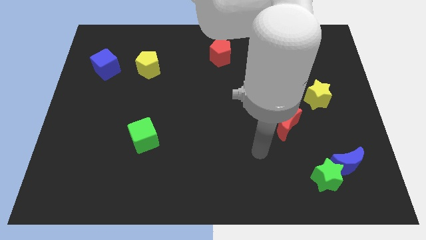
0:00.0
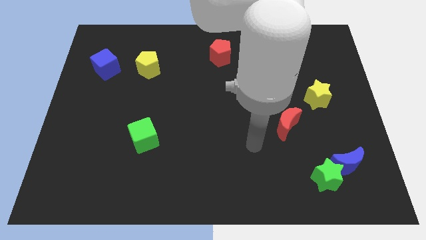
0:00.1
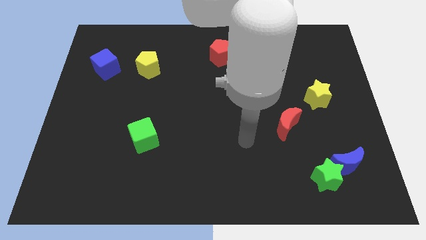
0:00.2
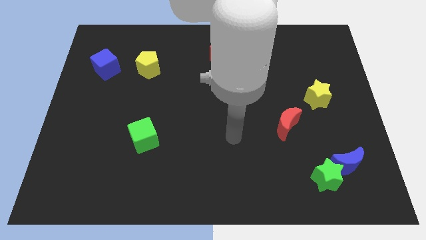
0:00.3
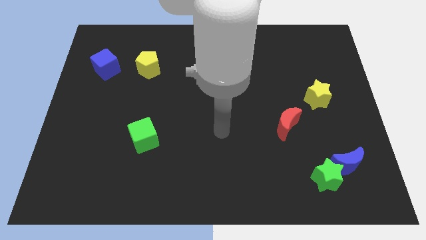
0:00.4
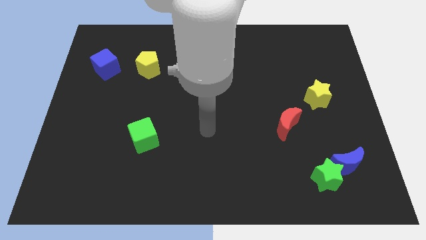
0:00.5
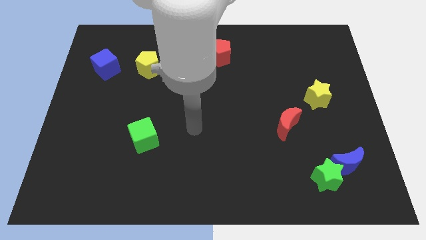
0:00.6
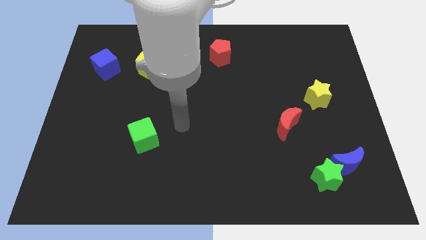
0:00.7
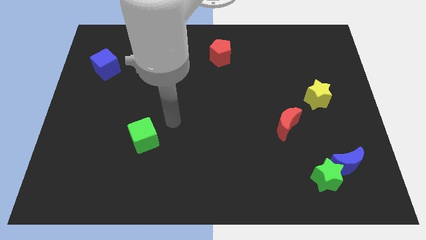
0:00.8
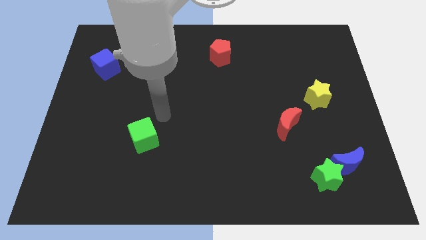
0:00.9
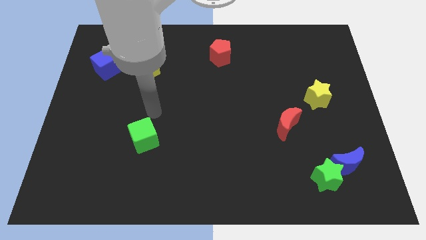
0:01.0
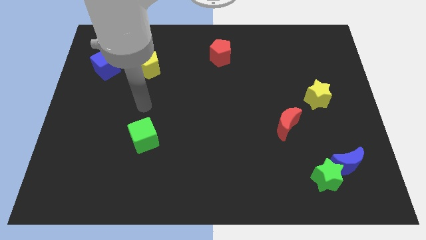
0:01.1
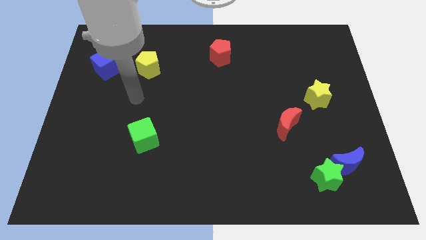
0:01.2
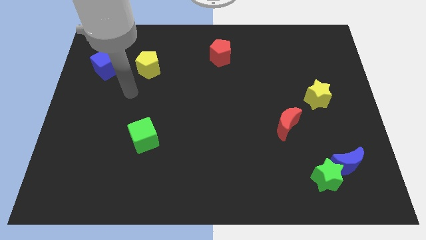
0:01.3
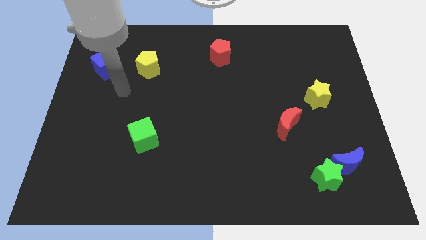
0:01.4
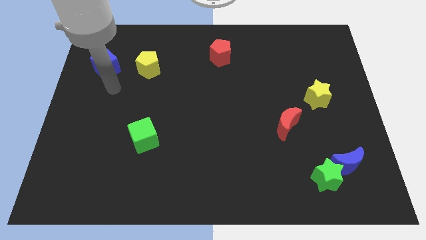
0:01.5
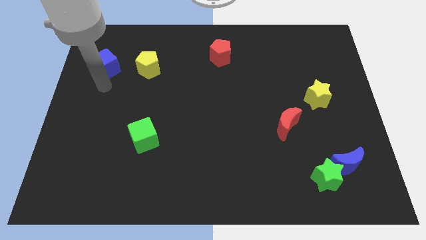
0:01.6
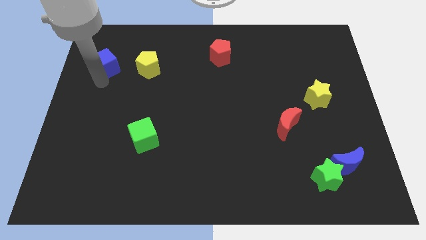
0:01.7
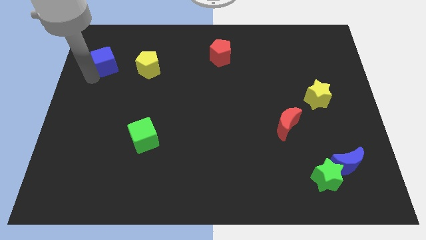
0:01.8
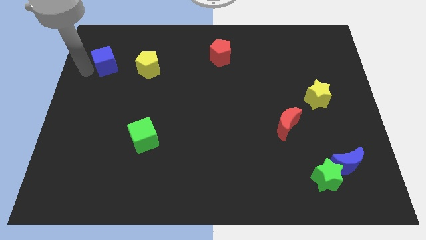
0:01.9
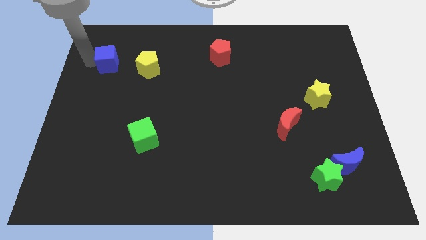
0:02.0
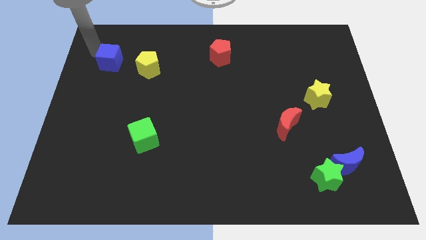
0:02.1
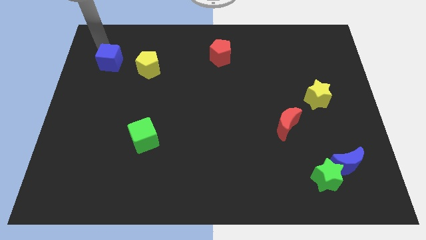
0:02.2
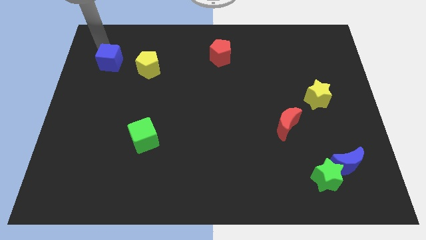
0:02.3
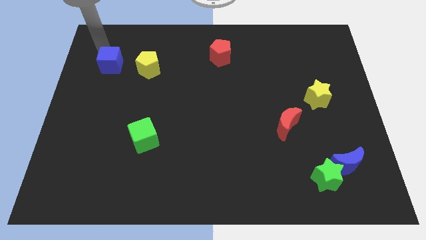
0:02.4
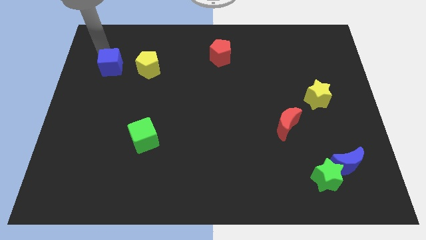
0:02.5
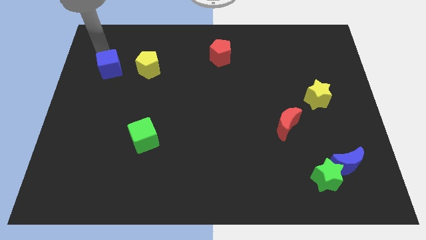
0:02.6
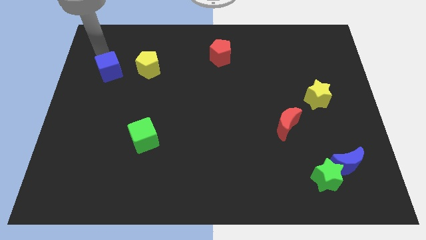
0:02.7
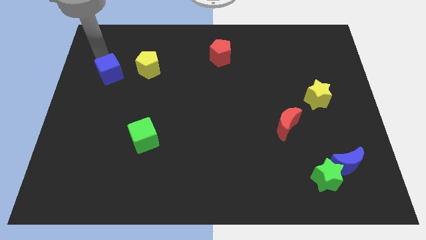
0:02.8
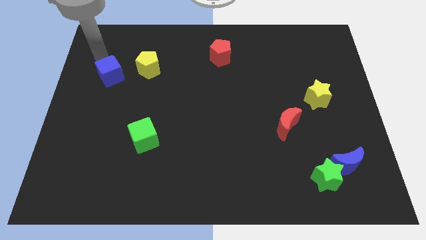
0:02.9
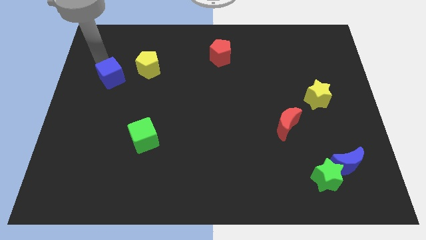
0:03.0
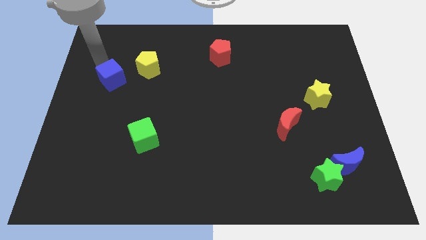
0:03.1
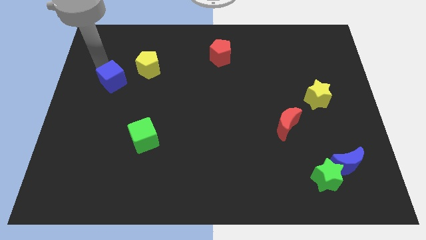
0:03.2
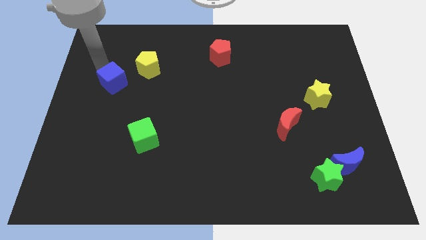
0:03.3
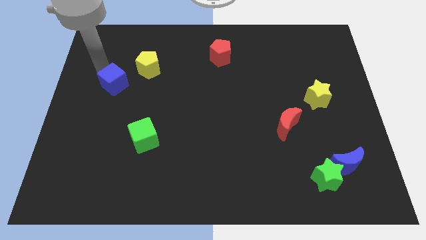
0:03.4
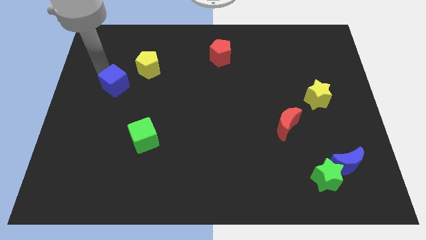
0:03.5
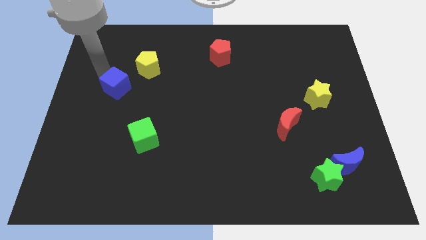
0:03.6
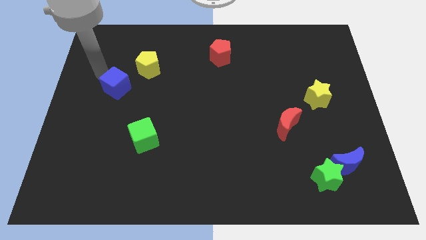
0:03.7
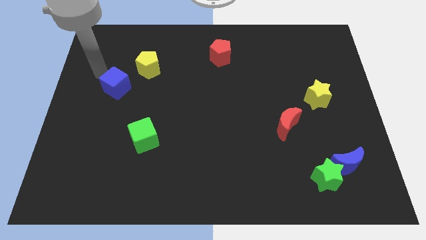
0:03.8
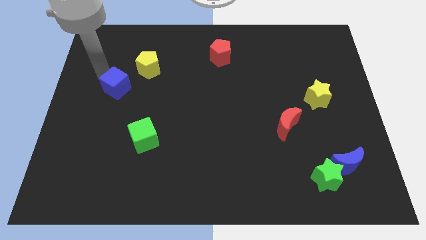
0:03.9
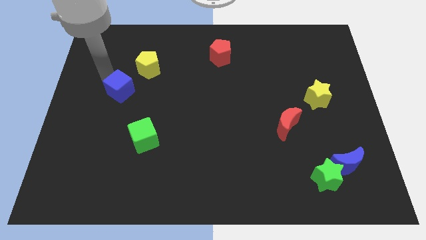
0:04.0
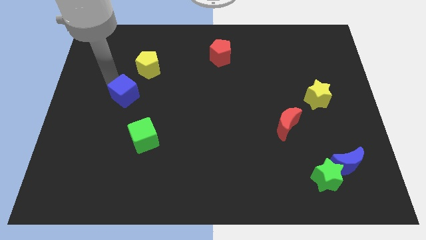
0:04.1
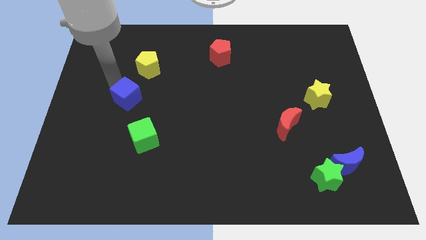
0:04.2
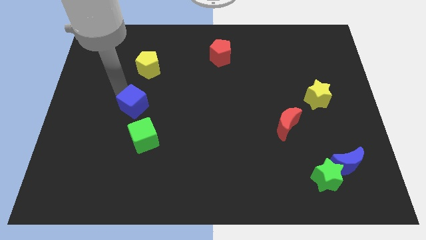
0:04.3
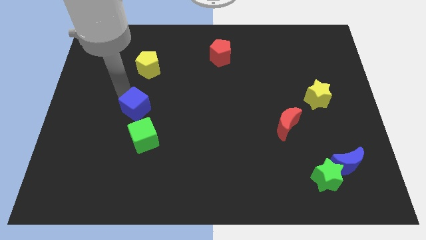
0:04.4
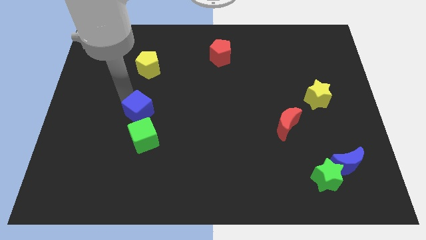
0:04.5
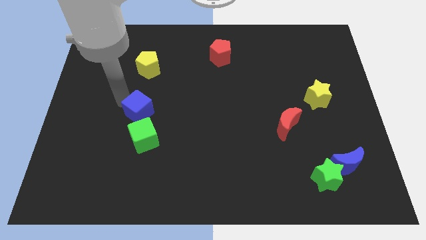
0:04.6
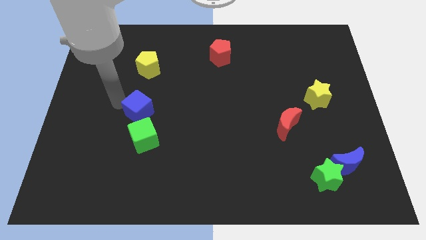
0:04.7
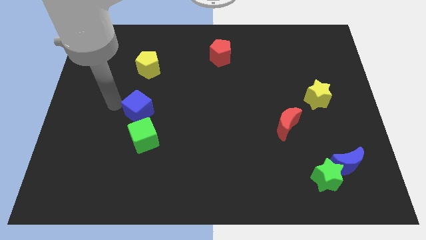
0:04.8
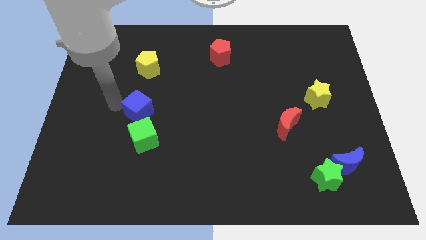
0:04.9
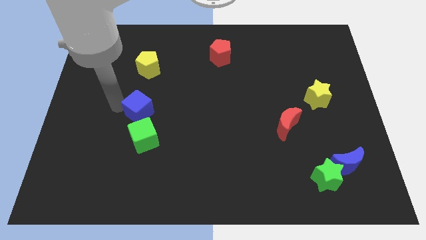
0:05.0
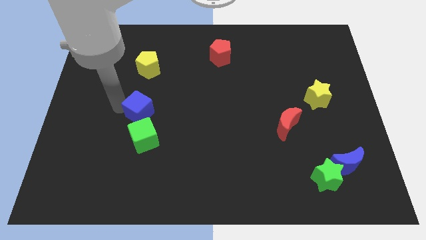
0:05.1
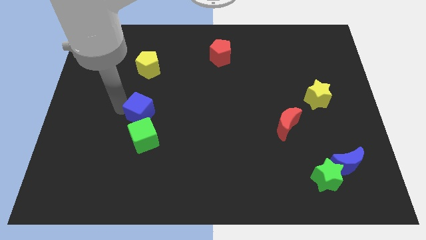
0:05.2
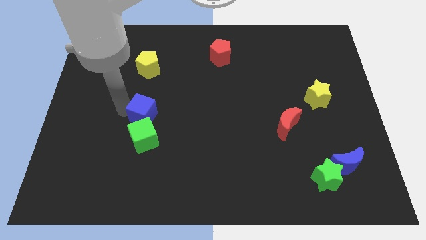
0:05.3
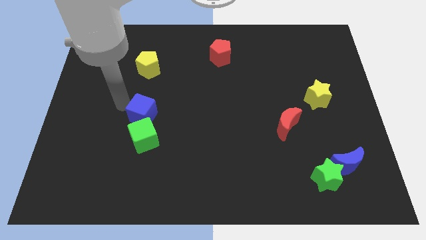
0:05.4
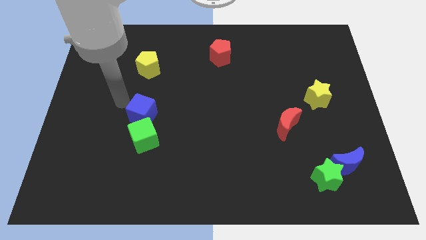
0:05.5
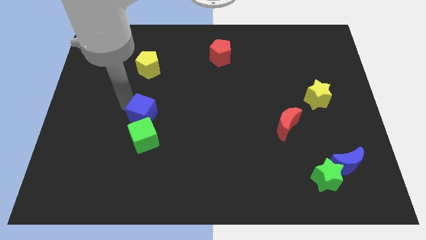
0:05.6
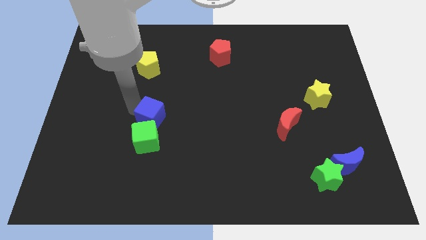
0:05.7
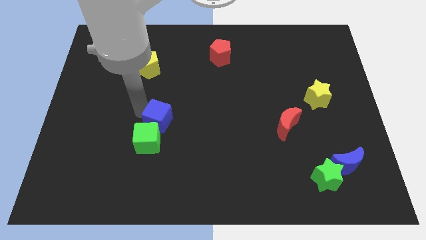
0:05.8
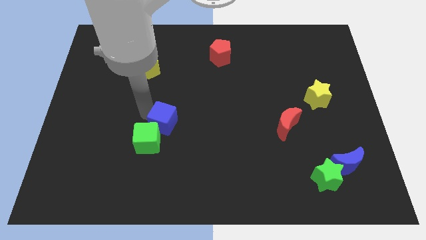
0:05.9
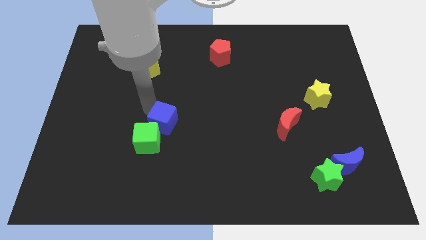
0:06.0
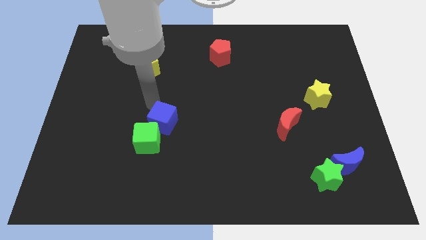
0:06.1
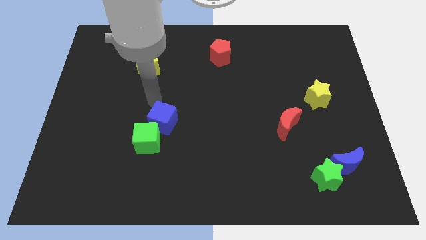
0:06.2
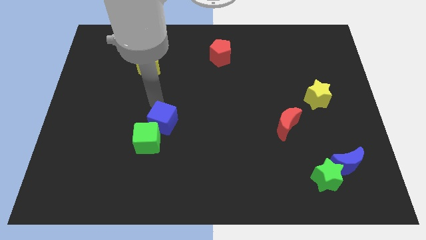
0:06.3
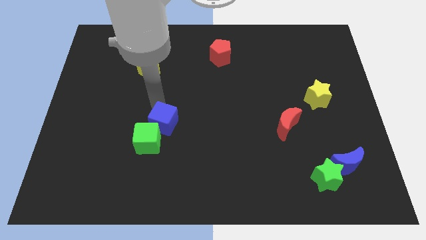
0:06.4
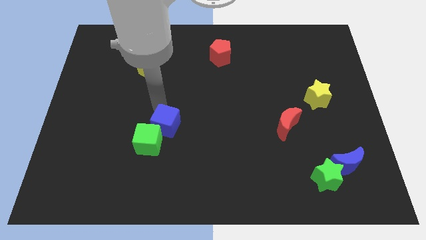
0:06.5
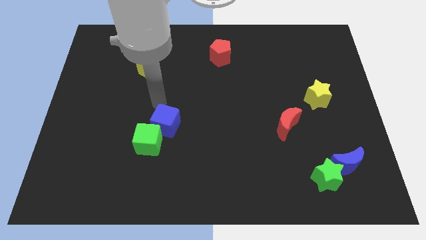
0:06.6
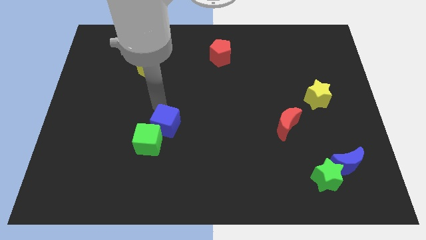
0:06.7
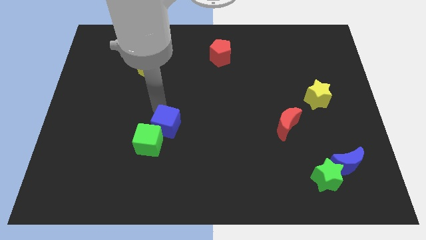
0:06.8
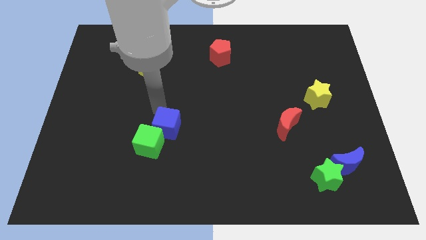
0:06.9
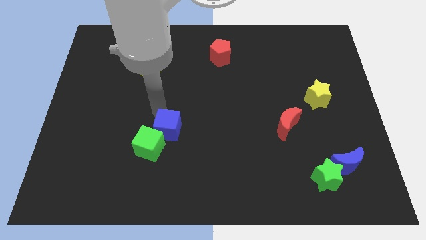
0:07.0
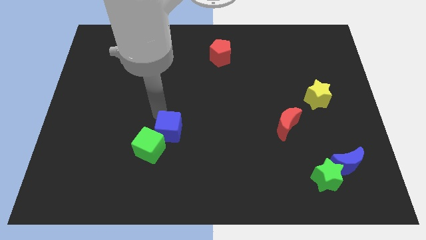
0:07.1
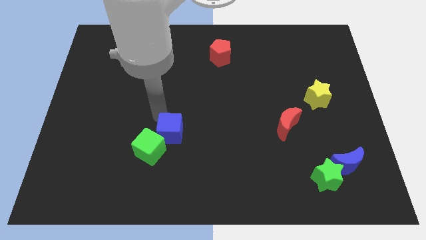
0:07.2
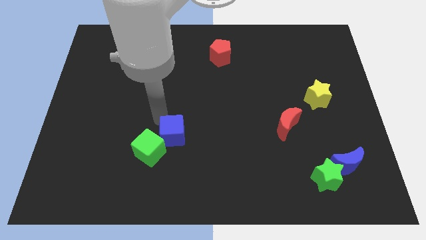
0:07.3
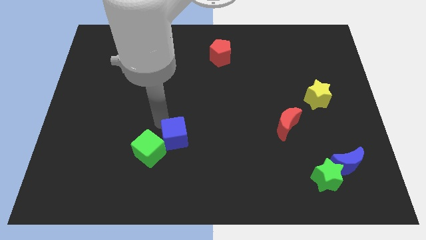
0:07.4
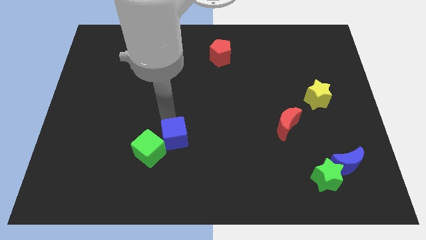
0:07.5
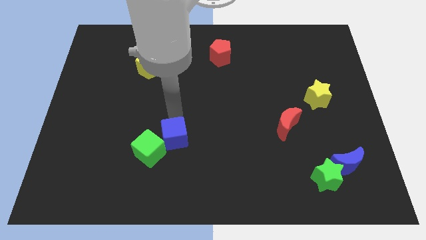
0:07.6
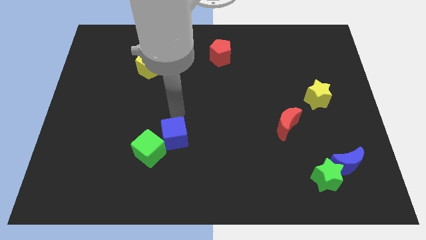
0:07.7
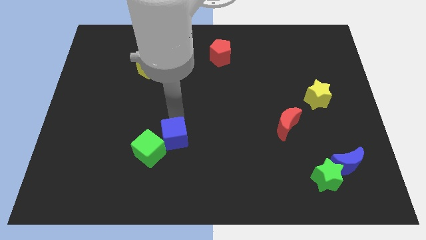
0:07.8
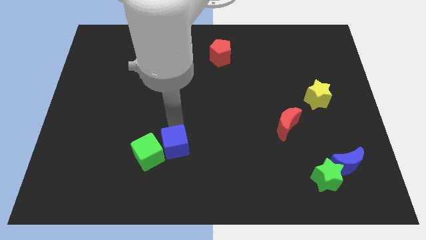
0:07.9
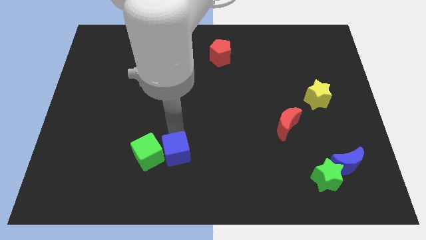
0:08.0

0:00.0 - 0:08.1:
push the blue cube to the bottom right side of the green cube
